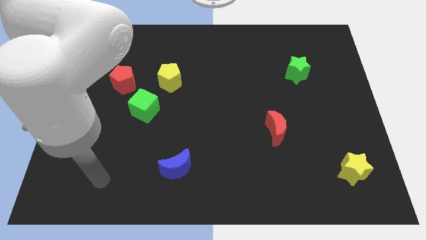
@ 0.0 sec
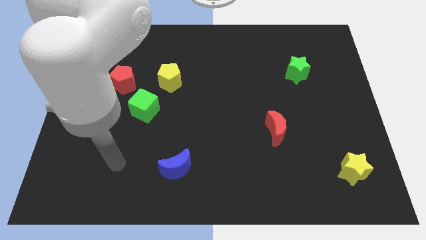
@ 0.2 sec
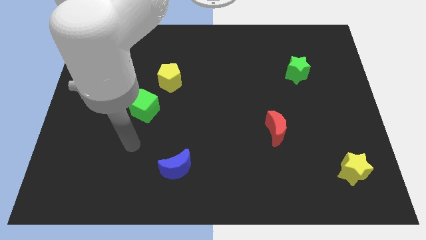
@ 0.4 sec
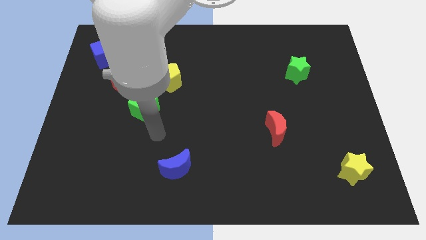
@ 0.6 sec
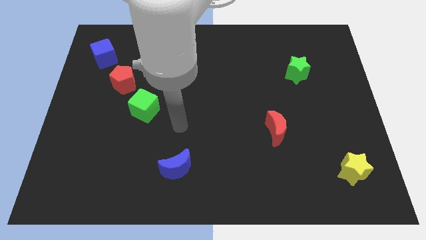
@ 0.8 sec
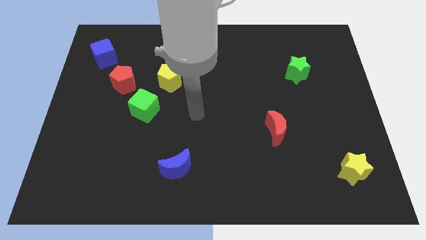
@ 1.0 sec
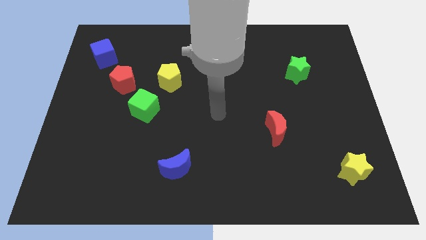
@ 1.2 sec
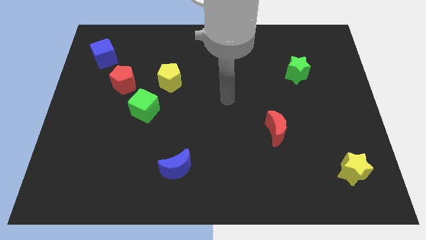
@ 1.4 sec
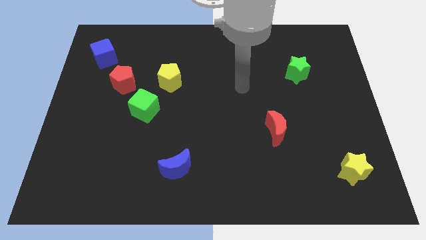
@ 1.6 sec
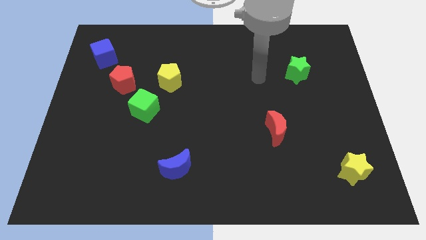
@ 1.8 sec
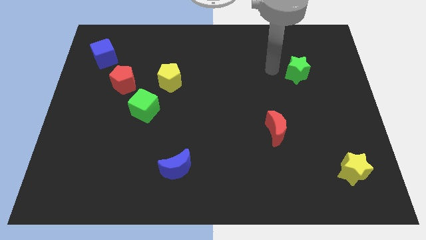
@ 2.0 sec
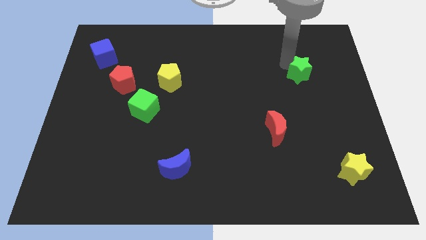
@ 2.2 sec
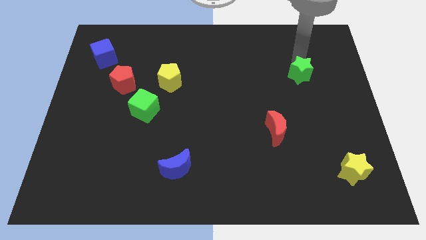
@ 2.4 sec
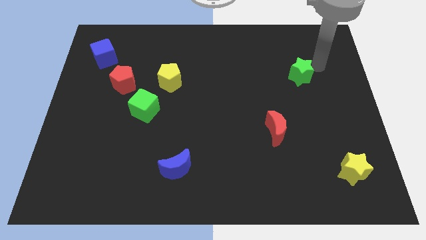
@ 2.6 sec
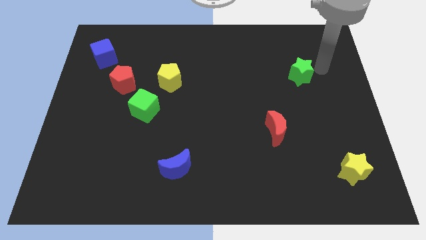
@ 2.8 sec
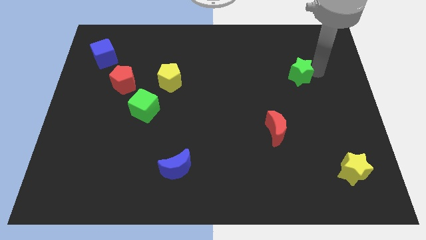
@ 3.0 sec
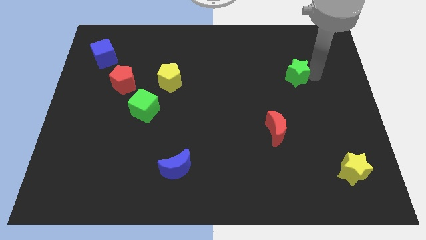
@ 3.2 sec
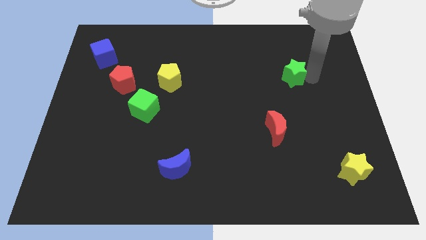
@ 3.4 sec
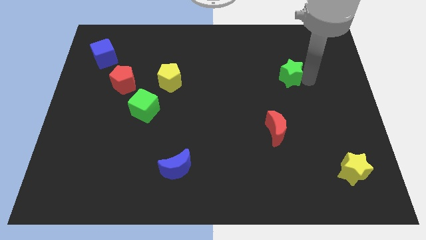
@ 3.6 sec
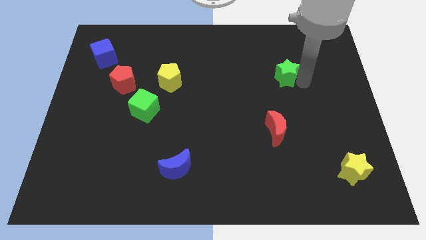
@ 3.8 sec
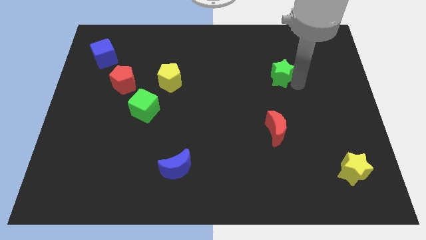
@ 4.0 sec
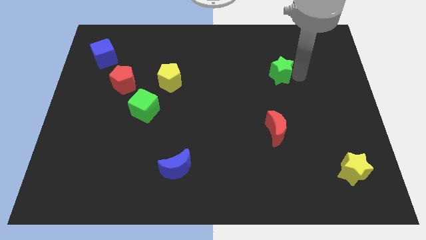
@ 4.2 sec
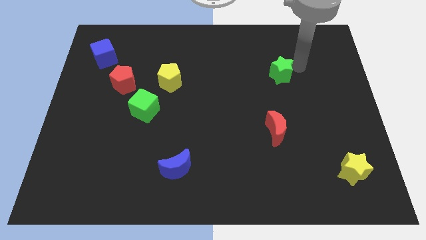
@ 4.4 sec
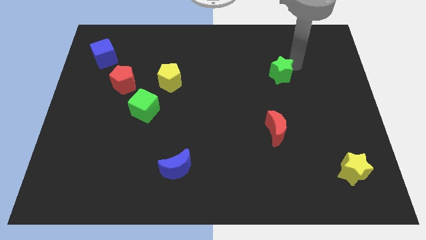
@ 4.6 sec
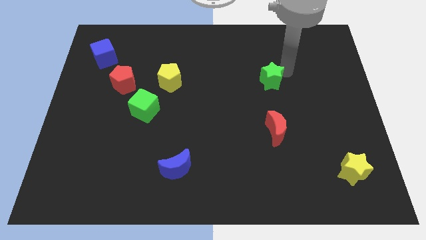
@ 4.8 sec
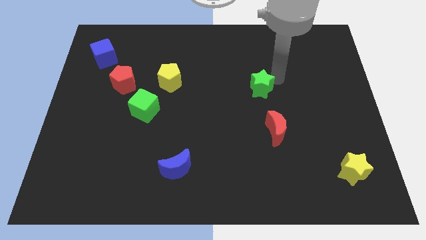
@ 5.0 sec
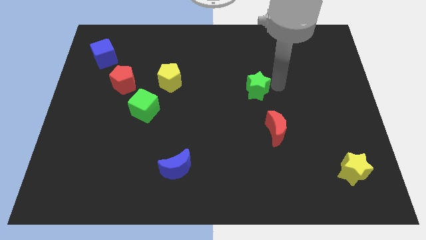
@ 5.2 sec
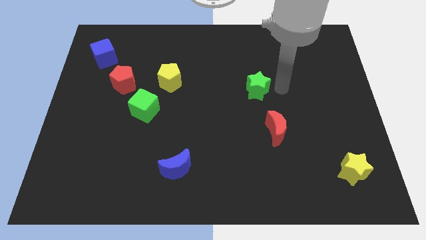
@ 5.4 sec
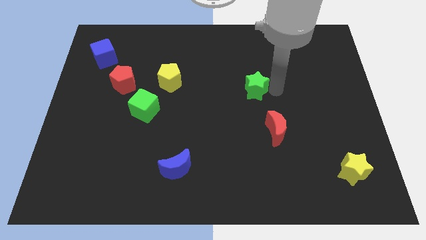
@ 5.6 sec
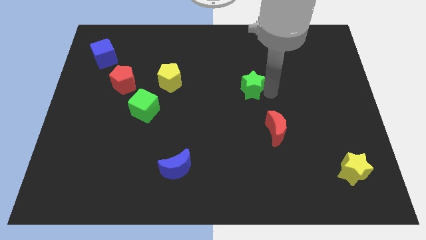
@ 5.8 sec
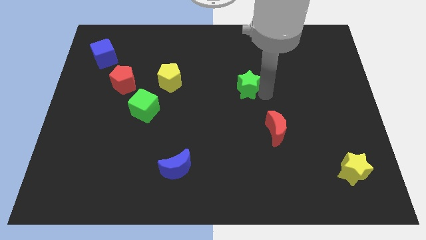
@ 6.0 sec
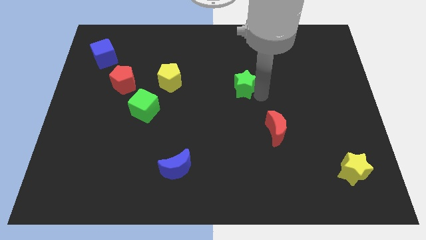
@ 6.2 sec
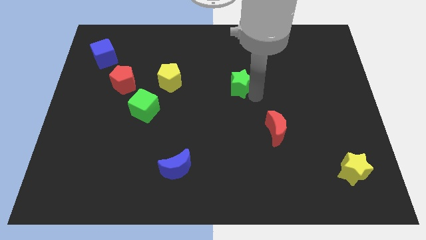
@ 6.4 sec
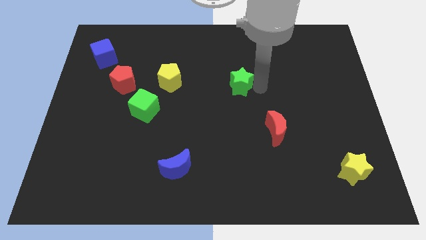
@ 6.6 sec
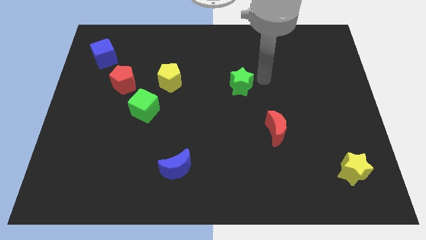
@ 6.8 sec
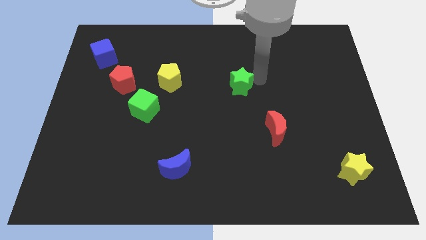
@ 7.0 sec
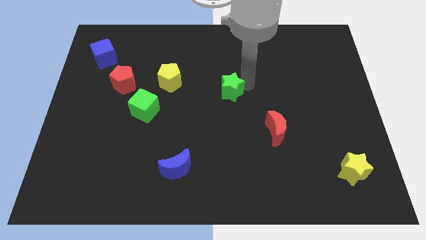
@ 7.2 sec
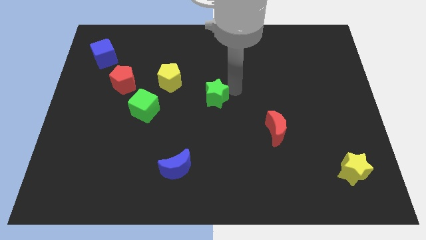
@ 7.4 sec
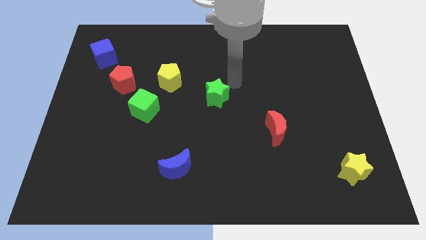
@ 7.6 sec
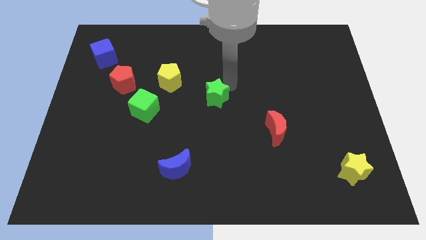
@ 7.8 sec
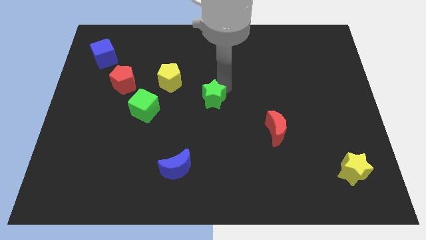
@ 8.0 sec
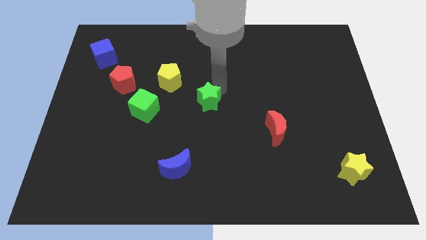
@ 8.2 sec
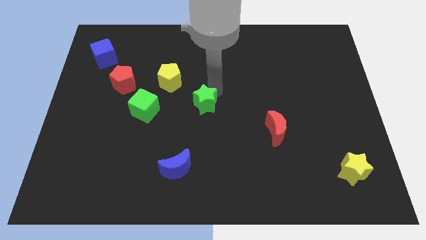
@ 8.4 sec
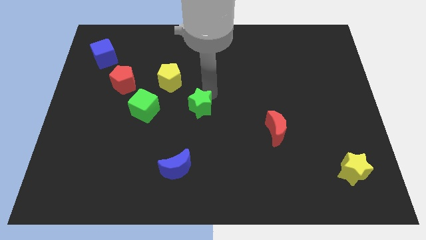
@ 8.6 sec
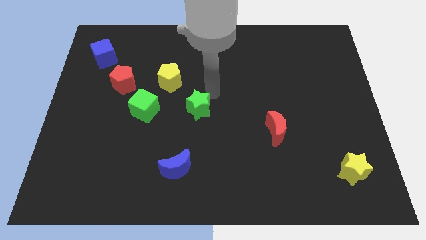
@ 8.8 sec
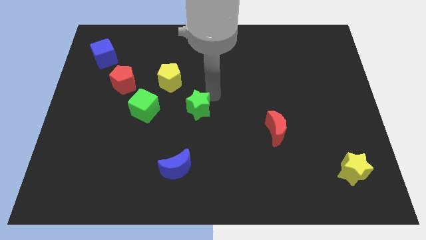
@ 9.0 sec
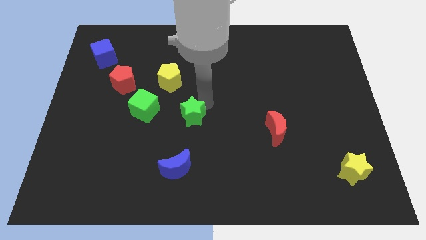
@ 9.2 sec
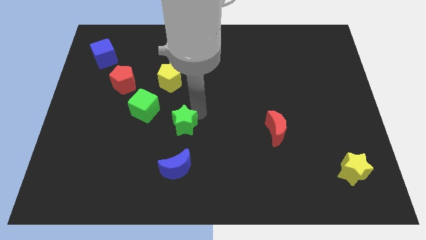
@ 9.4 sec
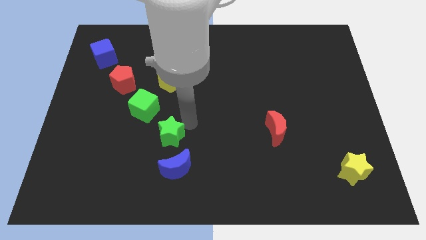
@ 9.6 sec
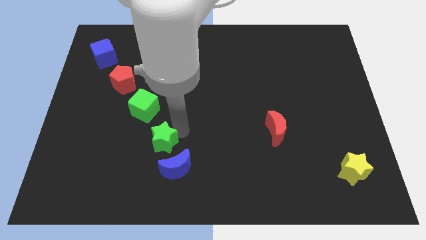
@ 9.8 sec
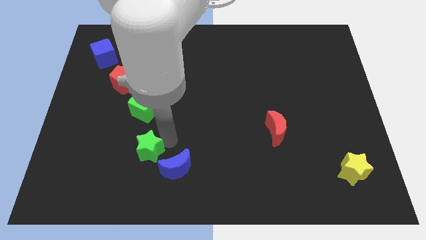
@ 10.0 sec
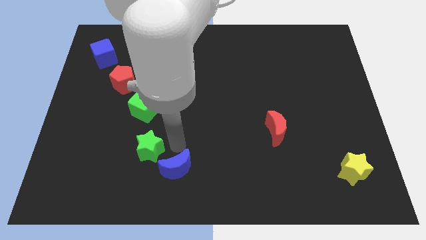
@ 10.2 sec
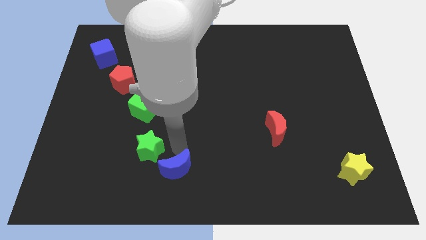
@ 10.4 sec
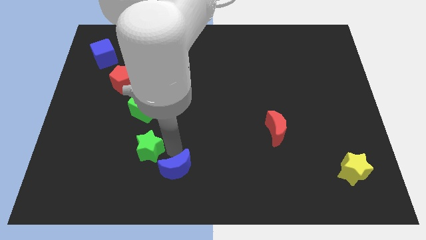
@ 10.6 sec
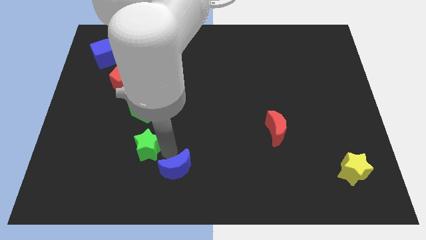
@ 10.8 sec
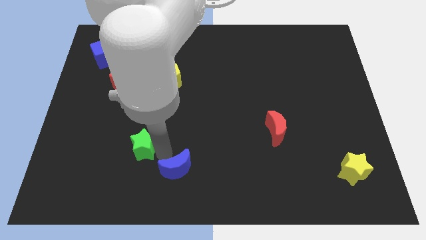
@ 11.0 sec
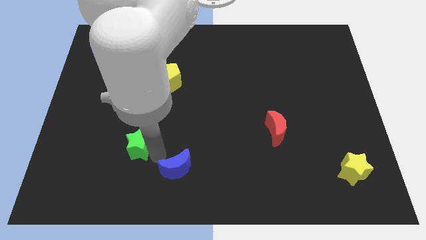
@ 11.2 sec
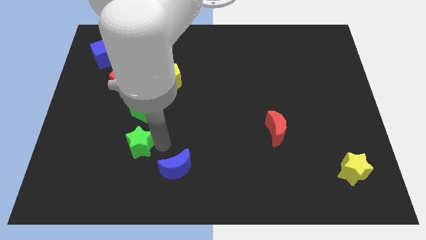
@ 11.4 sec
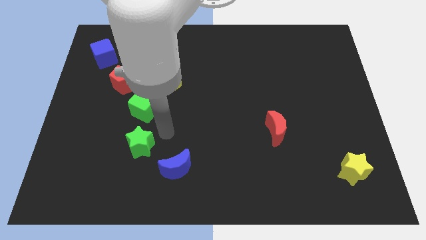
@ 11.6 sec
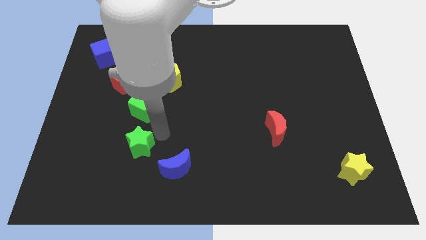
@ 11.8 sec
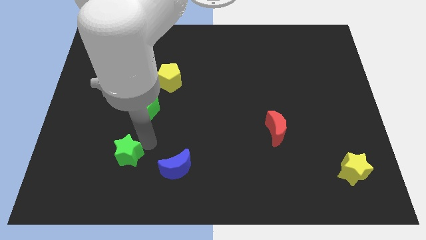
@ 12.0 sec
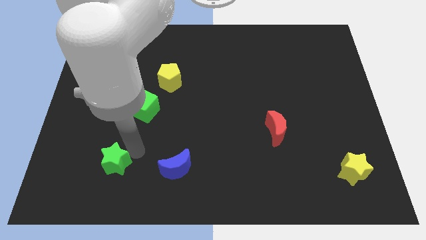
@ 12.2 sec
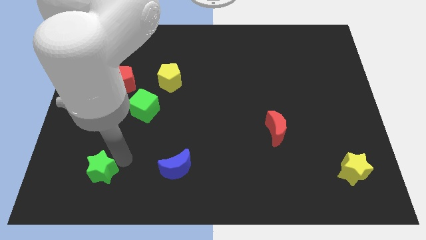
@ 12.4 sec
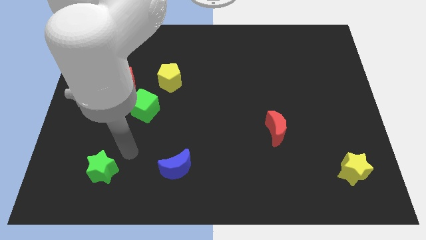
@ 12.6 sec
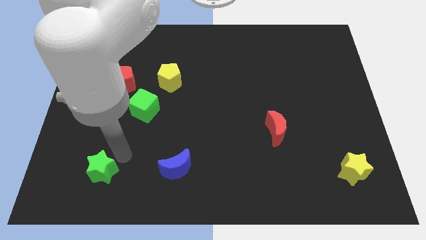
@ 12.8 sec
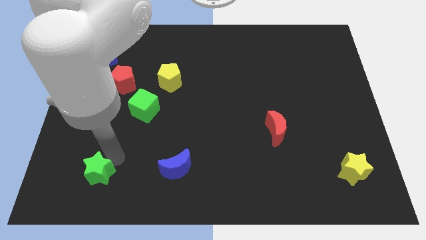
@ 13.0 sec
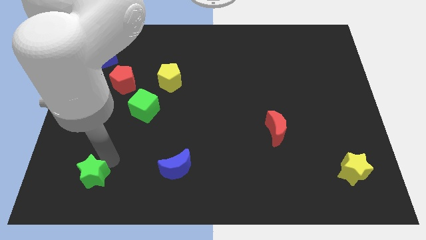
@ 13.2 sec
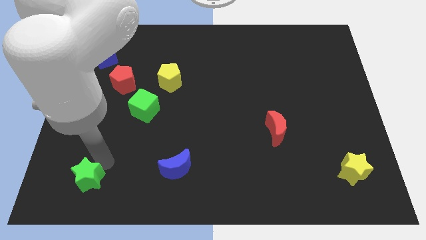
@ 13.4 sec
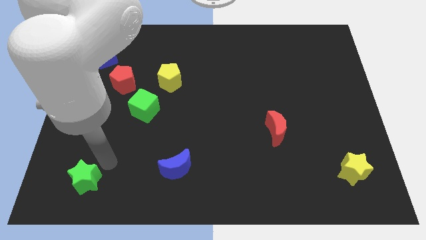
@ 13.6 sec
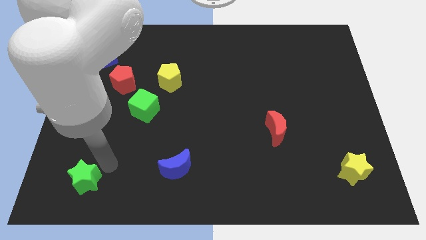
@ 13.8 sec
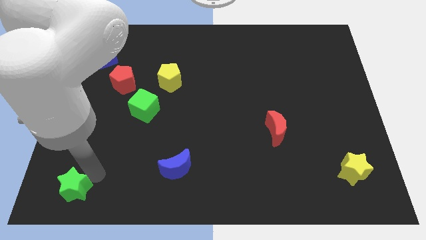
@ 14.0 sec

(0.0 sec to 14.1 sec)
put the green star to the bottom left corner
